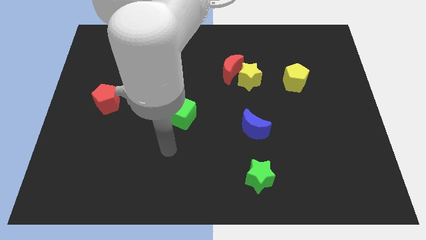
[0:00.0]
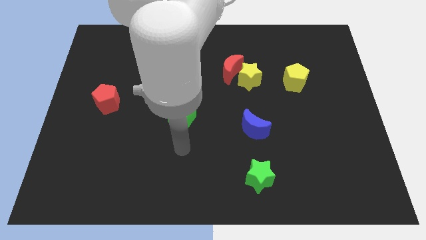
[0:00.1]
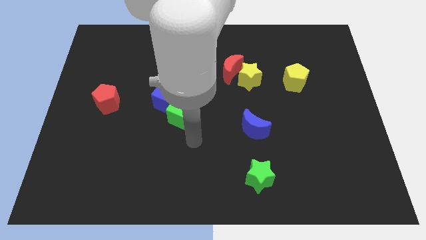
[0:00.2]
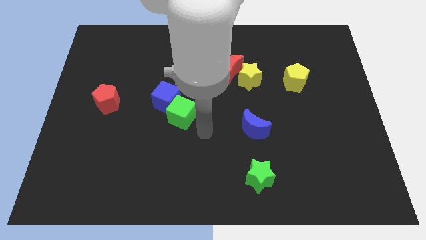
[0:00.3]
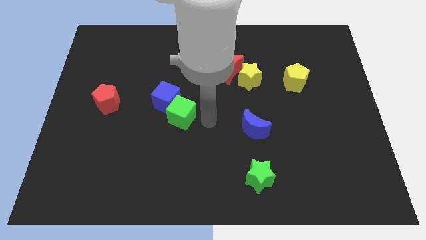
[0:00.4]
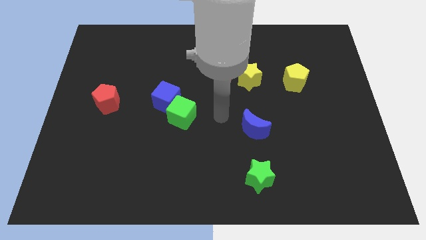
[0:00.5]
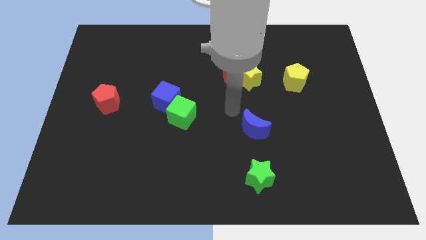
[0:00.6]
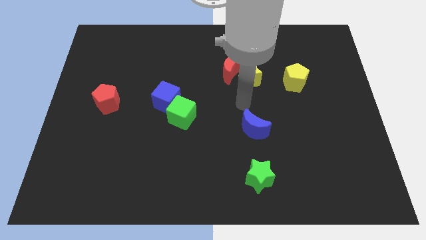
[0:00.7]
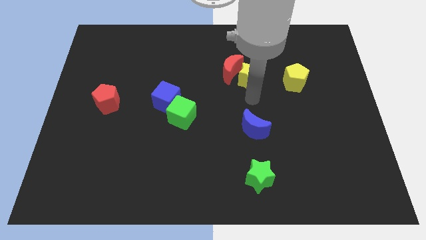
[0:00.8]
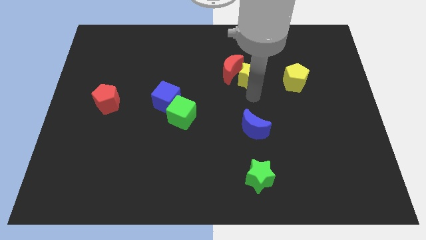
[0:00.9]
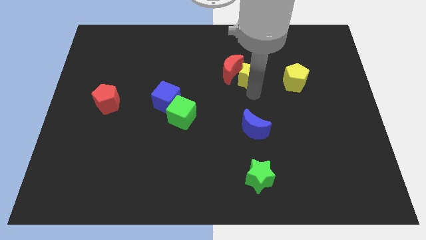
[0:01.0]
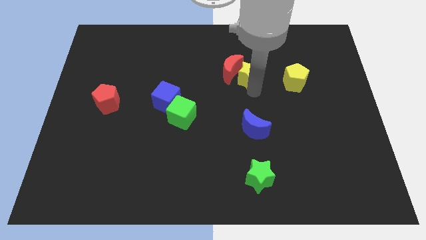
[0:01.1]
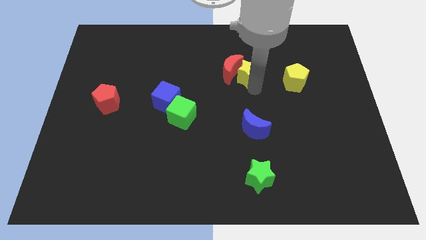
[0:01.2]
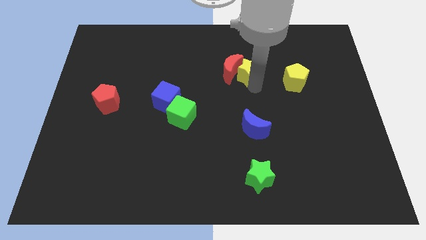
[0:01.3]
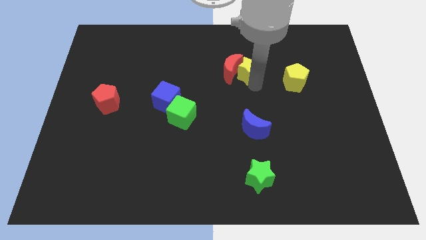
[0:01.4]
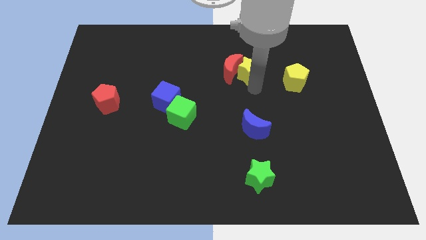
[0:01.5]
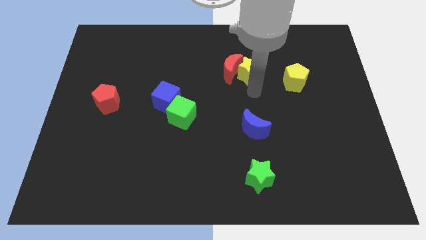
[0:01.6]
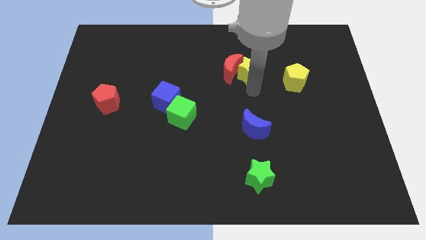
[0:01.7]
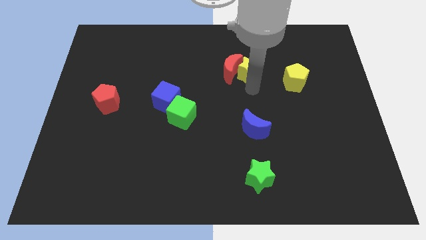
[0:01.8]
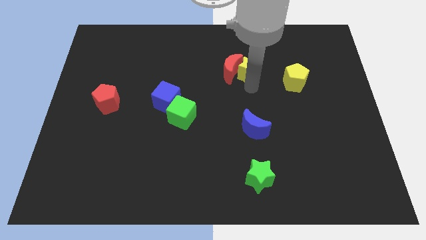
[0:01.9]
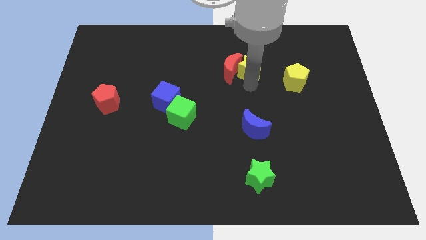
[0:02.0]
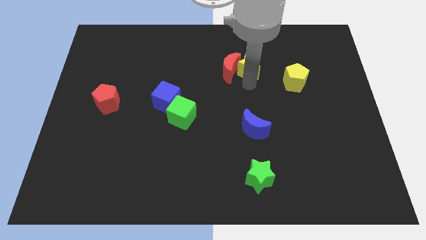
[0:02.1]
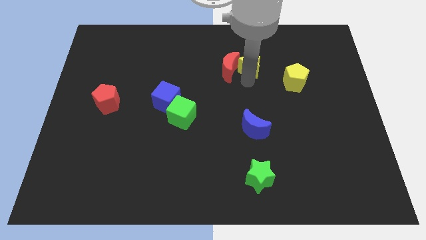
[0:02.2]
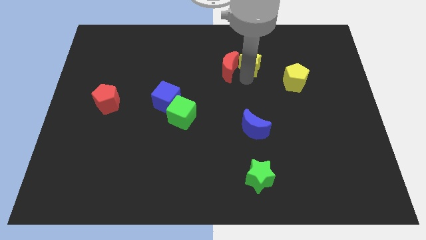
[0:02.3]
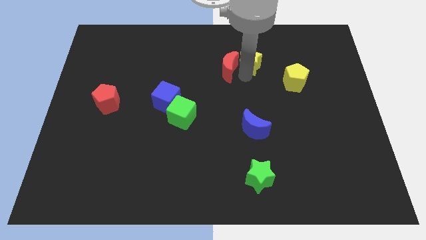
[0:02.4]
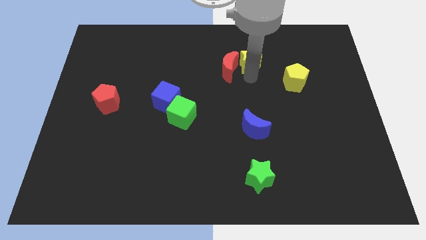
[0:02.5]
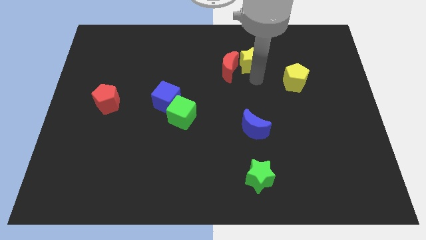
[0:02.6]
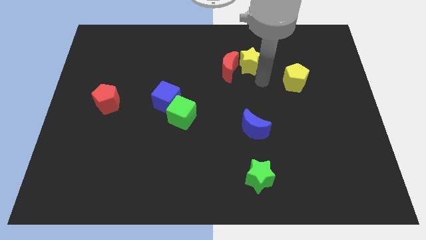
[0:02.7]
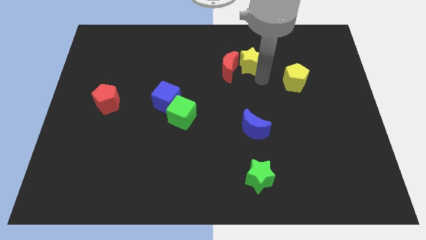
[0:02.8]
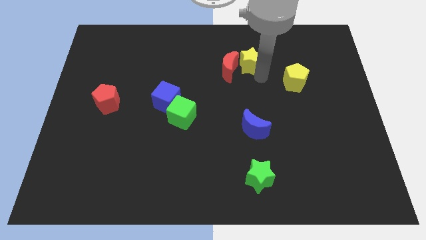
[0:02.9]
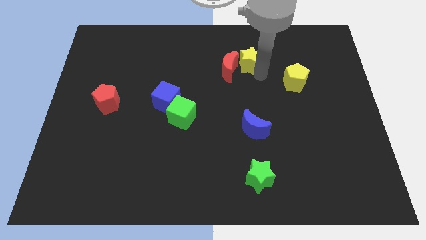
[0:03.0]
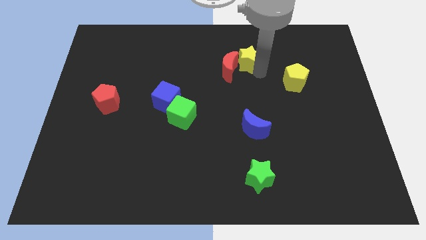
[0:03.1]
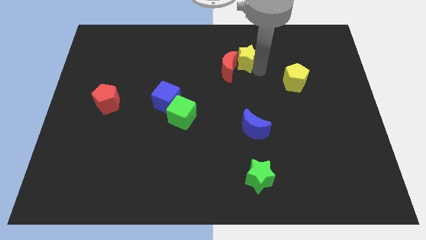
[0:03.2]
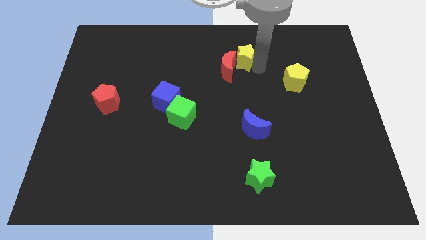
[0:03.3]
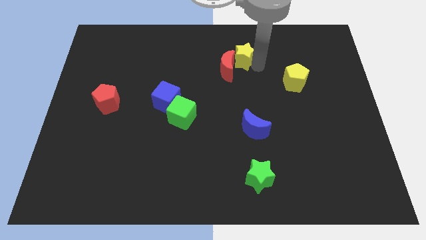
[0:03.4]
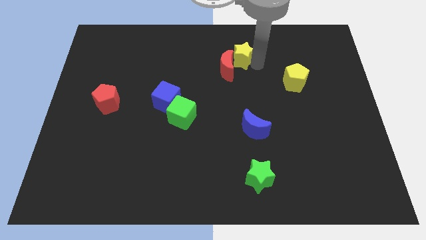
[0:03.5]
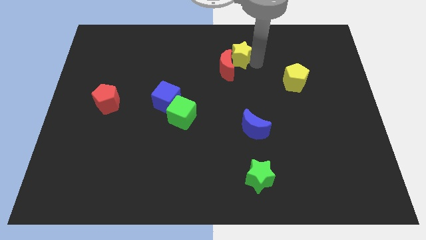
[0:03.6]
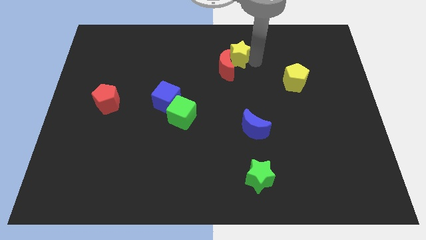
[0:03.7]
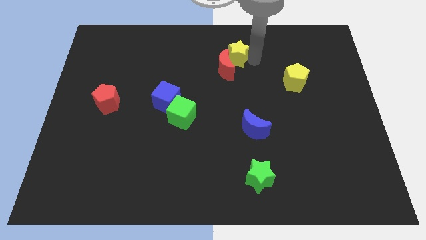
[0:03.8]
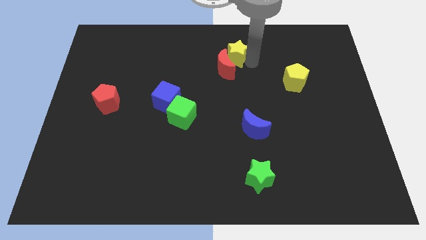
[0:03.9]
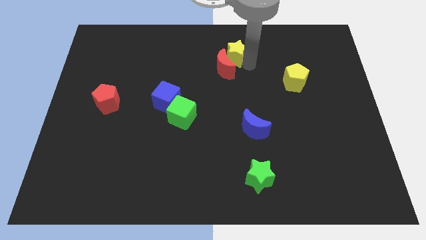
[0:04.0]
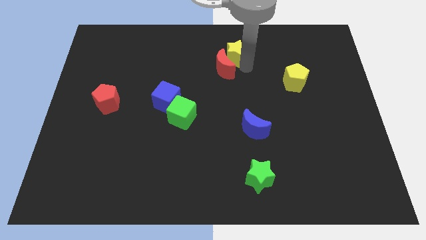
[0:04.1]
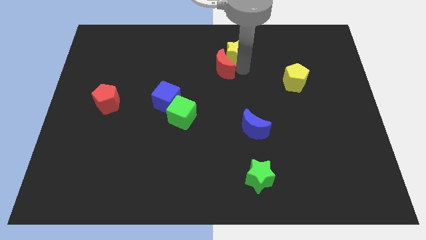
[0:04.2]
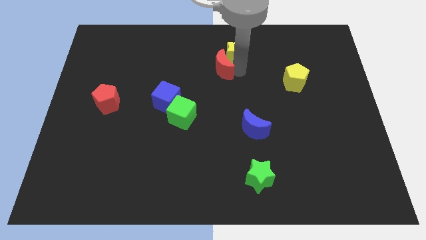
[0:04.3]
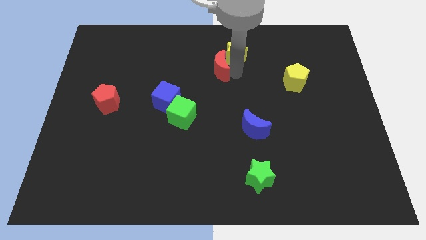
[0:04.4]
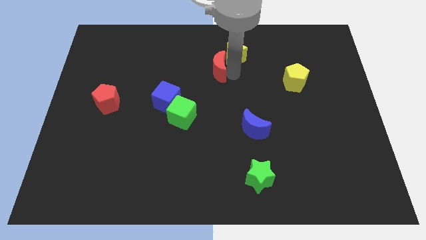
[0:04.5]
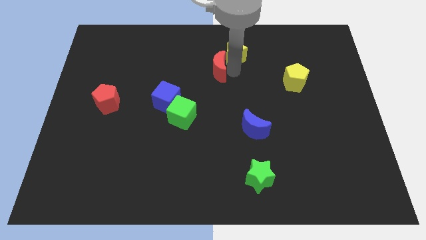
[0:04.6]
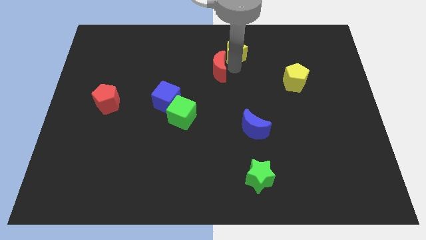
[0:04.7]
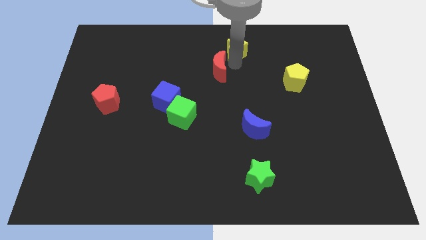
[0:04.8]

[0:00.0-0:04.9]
move the yellow star to the towards your base

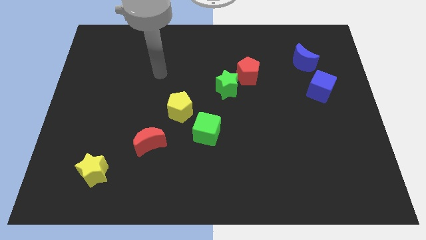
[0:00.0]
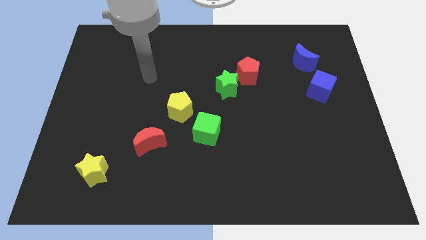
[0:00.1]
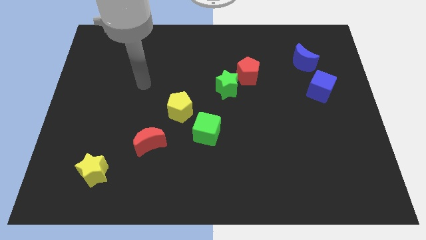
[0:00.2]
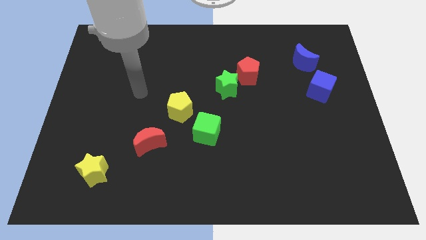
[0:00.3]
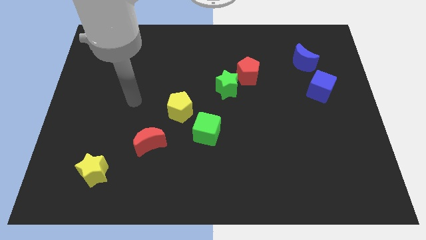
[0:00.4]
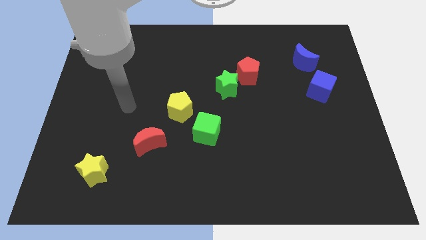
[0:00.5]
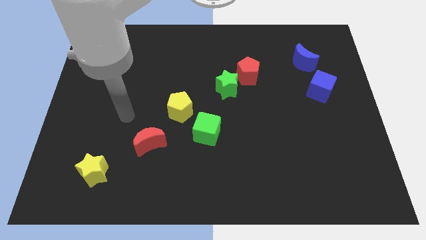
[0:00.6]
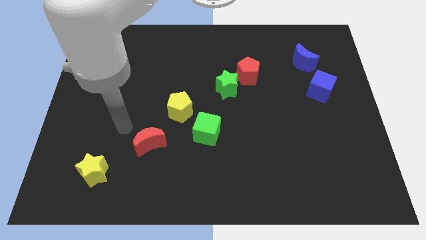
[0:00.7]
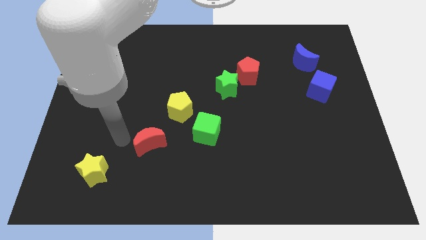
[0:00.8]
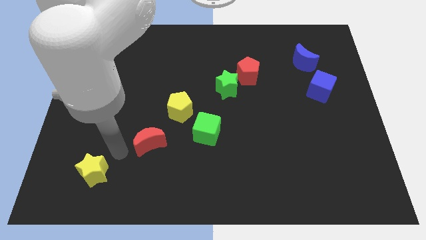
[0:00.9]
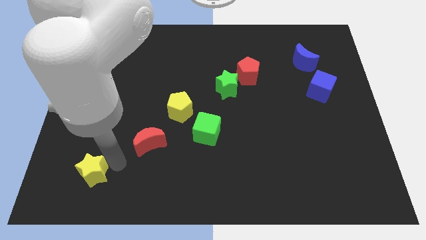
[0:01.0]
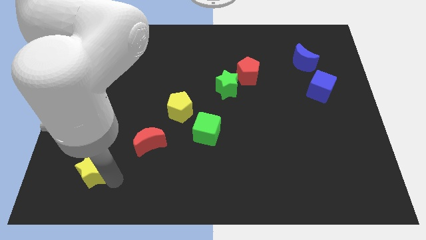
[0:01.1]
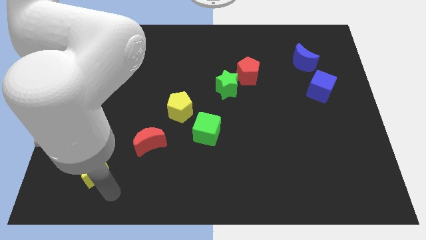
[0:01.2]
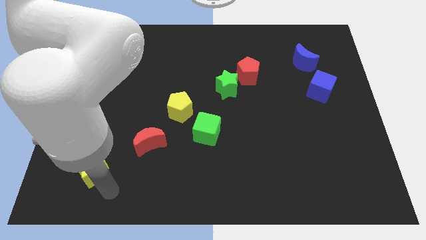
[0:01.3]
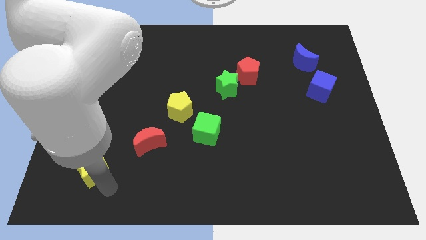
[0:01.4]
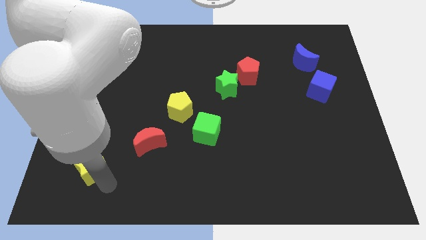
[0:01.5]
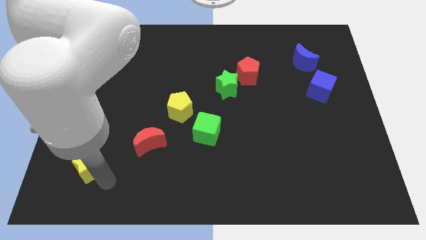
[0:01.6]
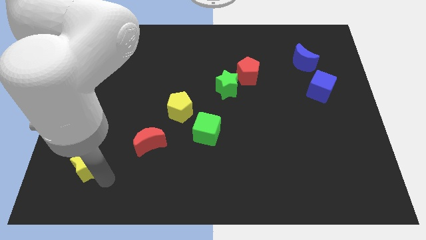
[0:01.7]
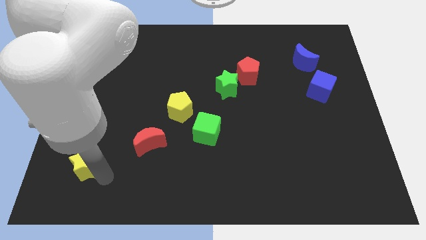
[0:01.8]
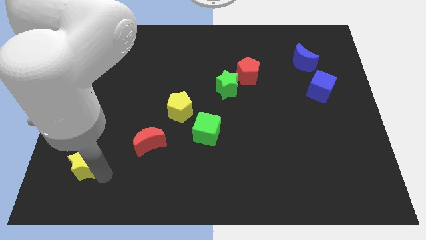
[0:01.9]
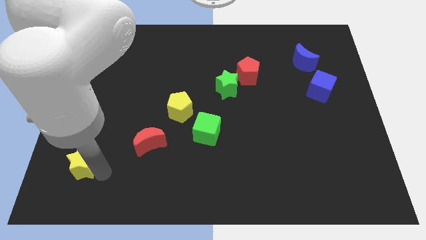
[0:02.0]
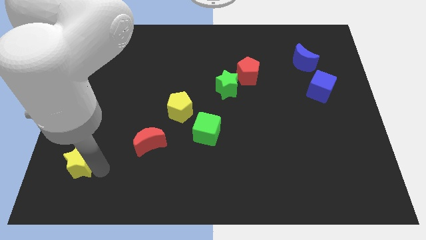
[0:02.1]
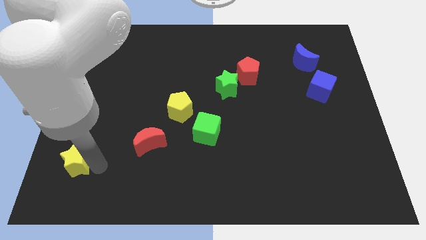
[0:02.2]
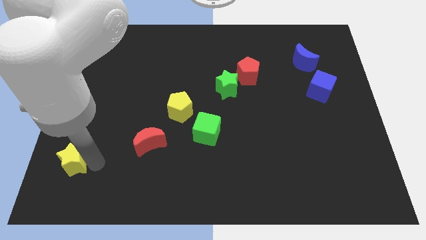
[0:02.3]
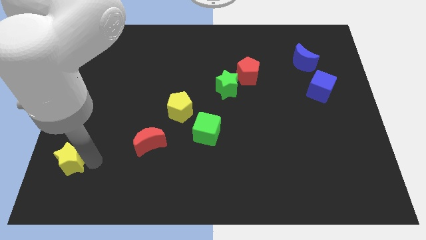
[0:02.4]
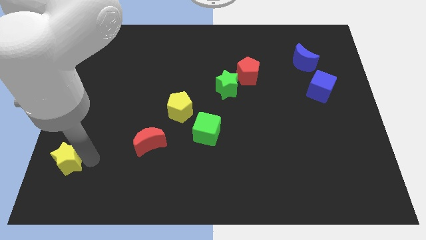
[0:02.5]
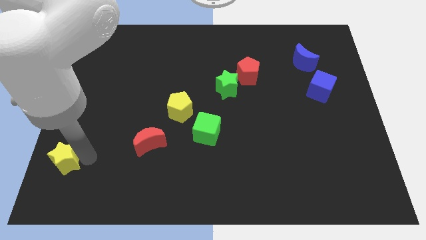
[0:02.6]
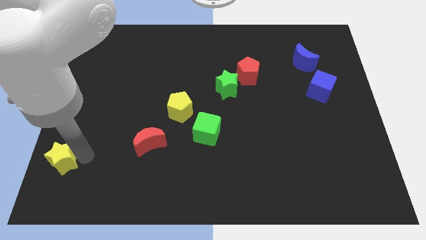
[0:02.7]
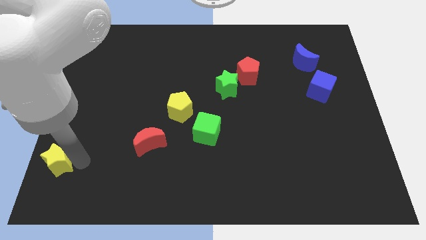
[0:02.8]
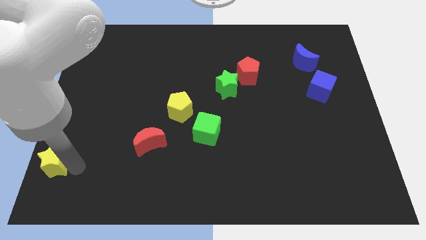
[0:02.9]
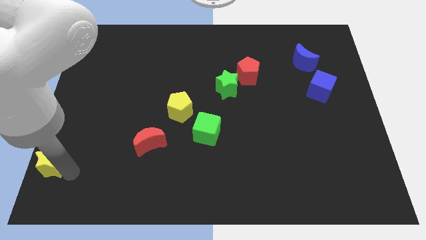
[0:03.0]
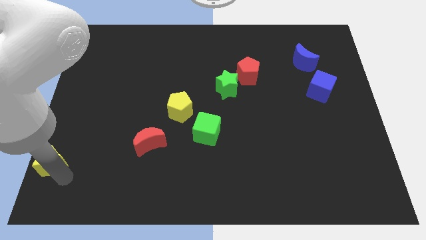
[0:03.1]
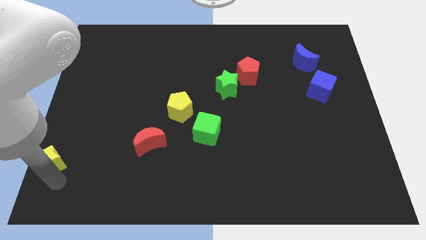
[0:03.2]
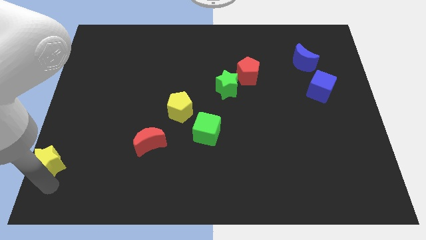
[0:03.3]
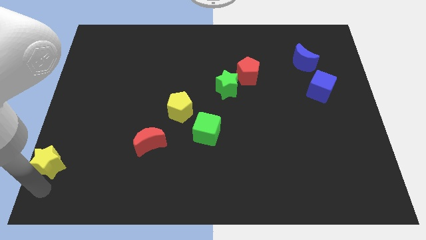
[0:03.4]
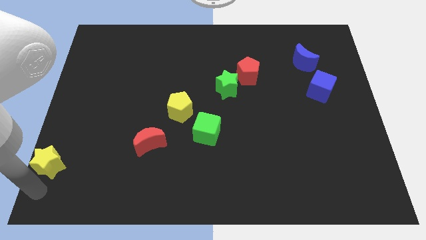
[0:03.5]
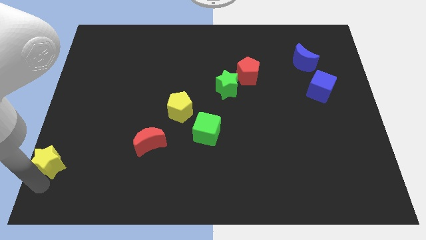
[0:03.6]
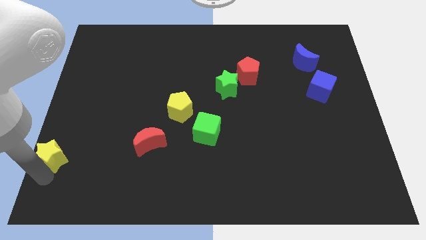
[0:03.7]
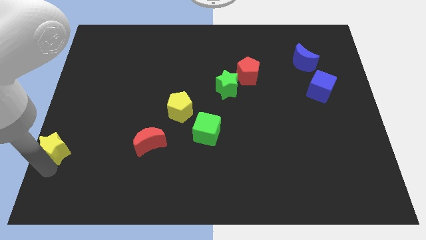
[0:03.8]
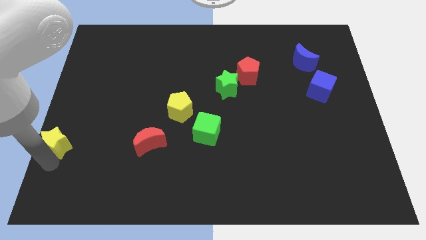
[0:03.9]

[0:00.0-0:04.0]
put the yellow star to the center left
